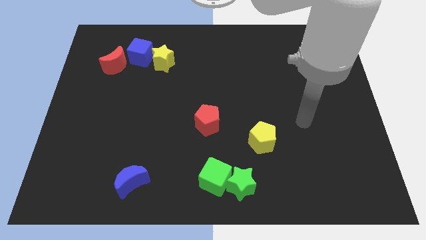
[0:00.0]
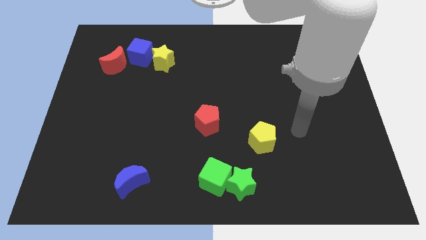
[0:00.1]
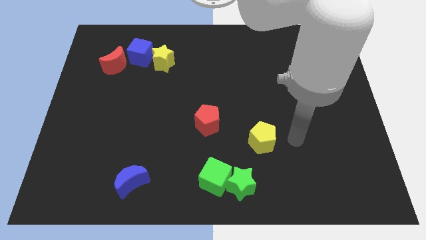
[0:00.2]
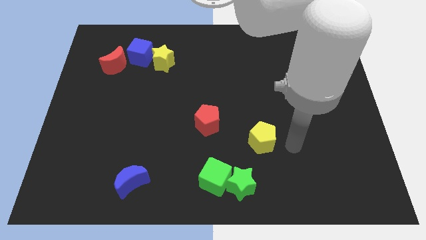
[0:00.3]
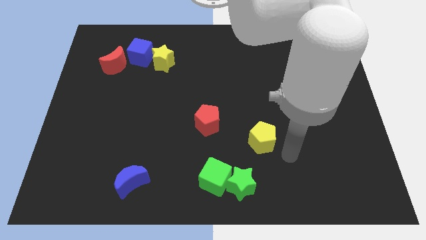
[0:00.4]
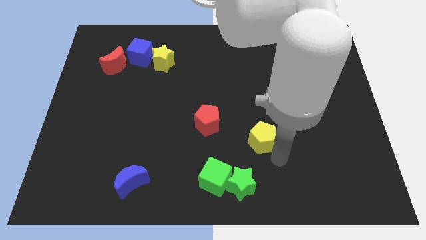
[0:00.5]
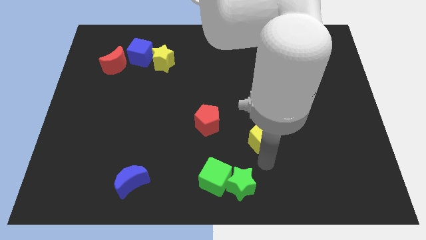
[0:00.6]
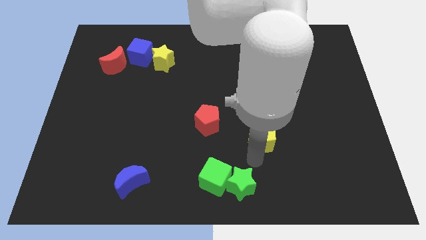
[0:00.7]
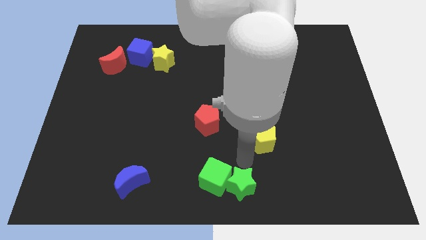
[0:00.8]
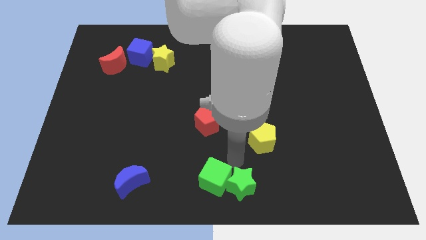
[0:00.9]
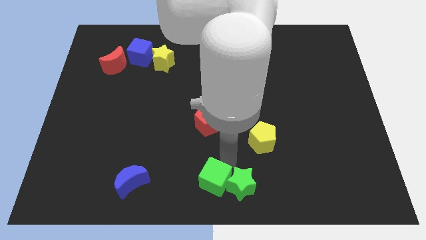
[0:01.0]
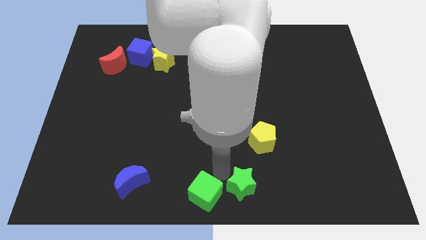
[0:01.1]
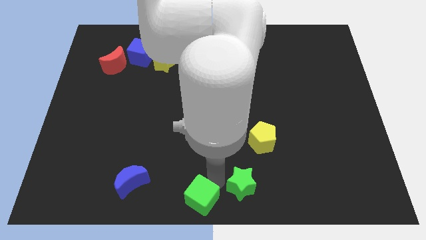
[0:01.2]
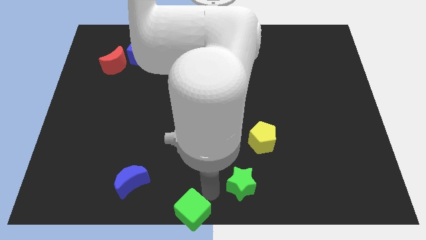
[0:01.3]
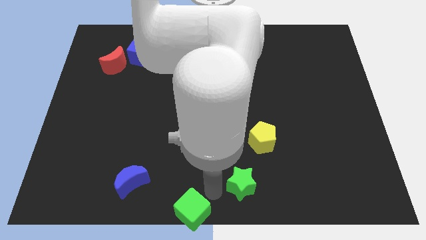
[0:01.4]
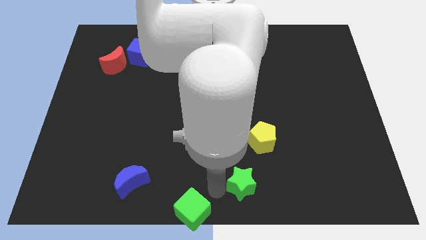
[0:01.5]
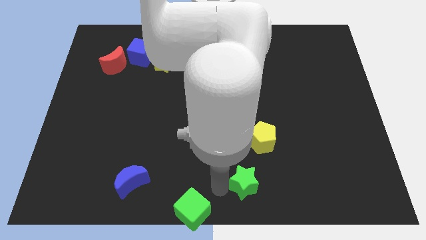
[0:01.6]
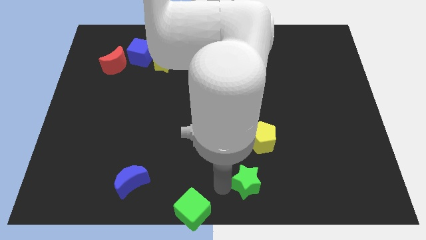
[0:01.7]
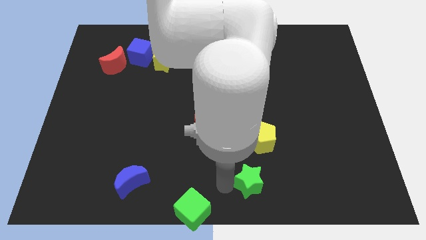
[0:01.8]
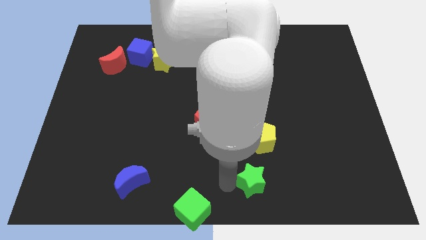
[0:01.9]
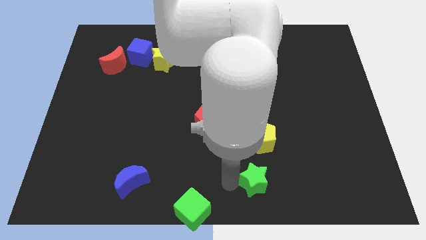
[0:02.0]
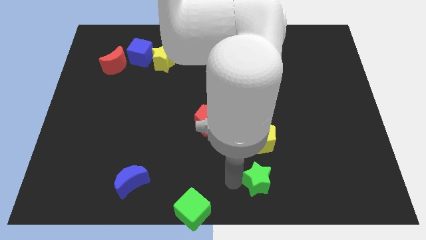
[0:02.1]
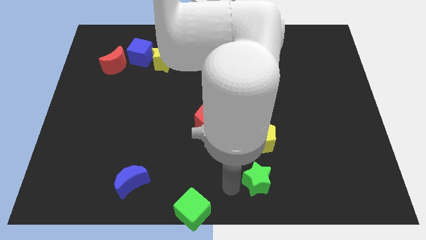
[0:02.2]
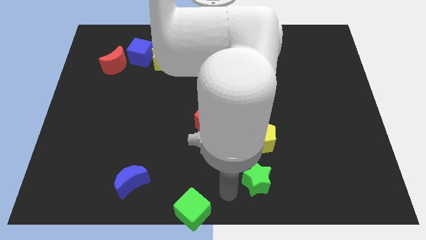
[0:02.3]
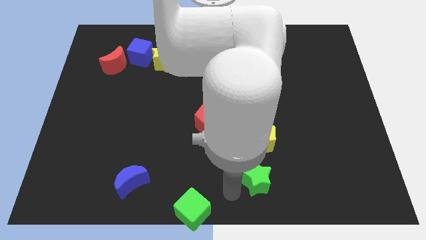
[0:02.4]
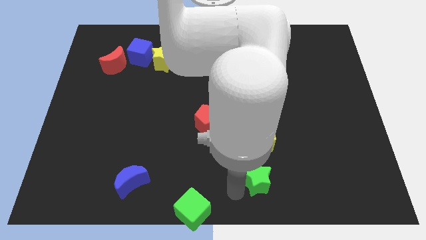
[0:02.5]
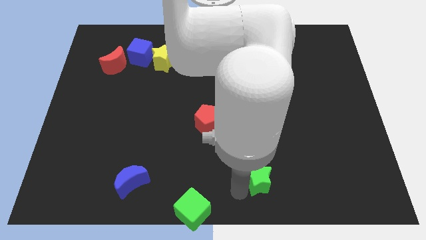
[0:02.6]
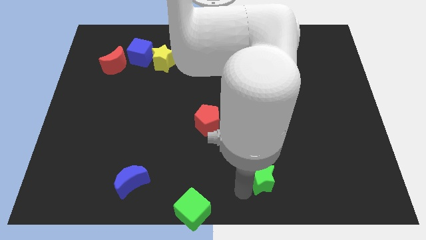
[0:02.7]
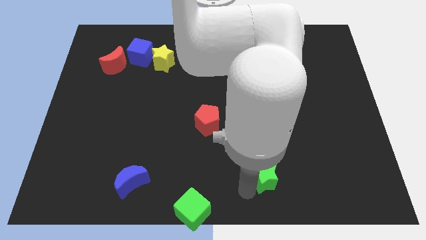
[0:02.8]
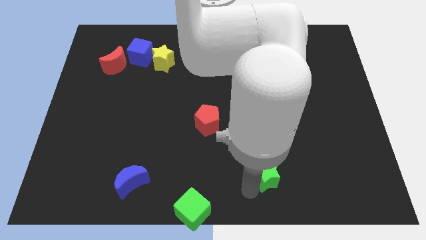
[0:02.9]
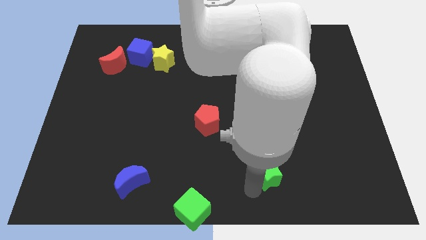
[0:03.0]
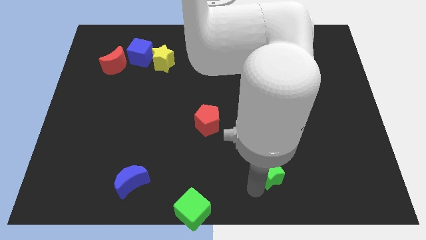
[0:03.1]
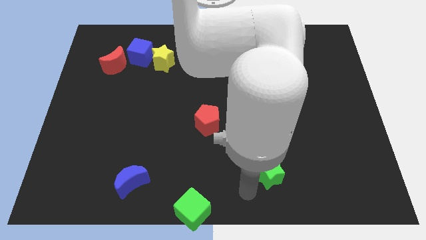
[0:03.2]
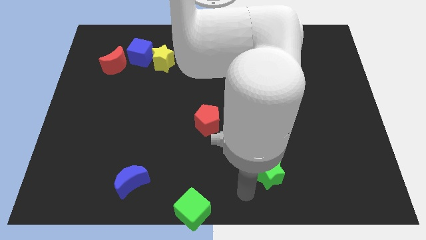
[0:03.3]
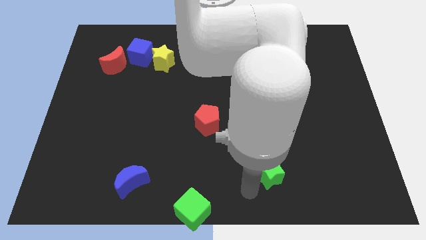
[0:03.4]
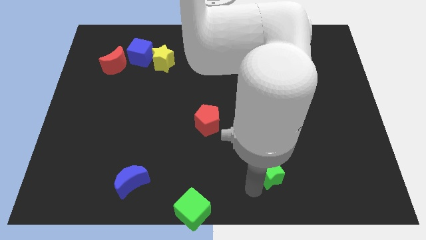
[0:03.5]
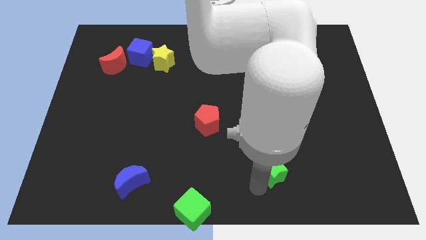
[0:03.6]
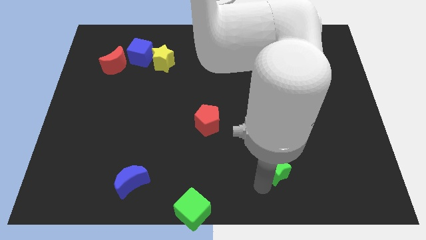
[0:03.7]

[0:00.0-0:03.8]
move the green star diagonally upwards and right a bit

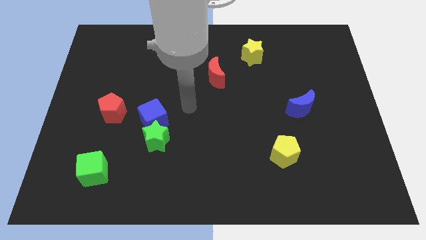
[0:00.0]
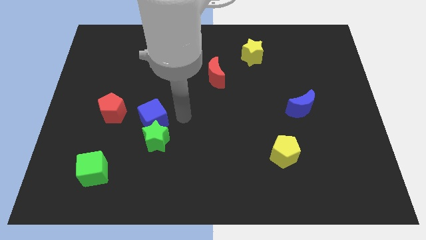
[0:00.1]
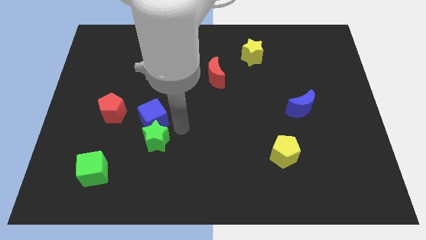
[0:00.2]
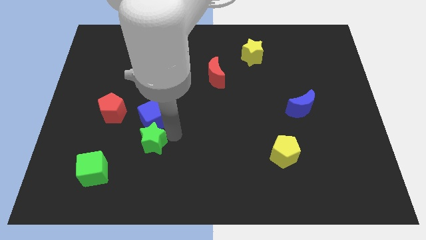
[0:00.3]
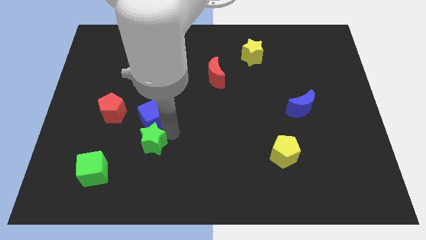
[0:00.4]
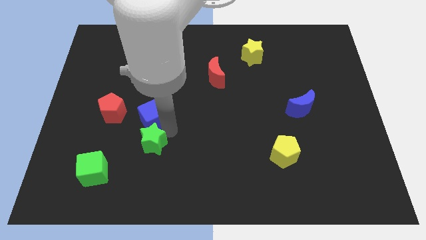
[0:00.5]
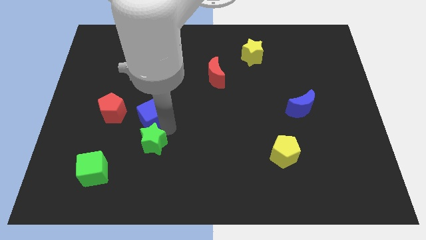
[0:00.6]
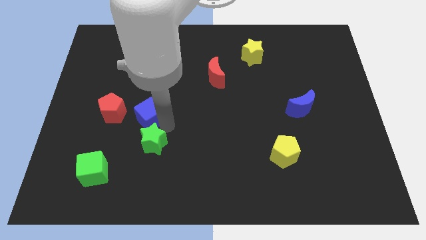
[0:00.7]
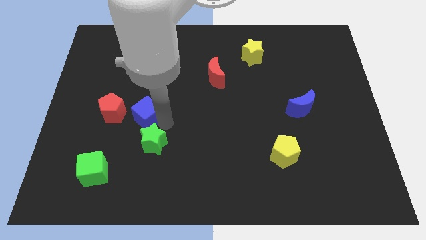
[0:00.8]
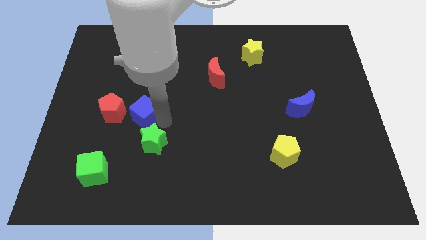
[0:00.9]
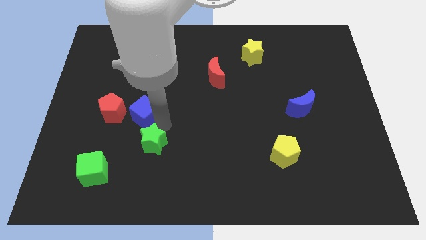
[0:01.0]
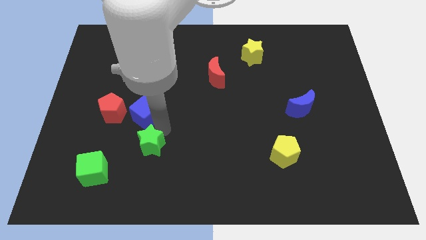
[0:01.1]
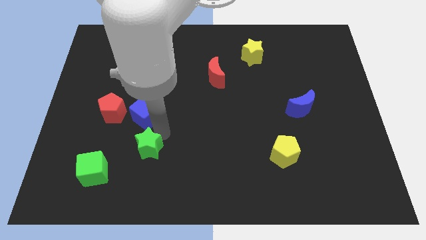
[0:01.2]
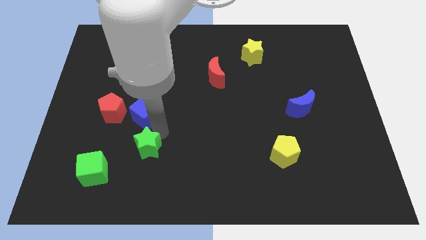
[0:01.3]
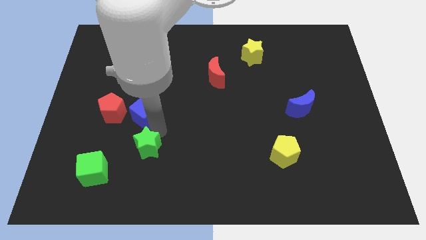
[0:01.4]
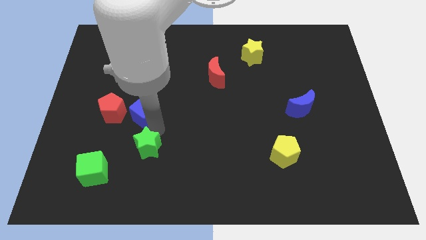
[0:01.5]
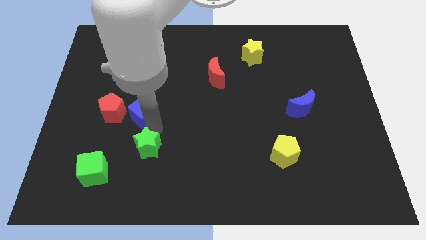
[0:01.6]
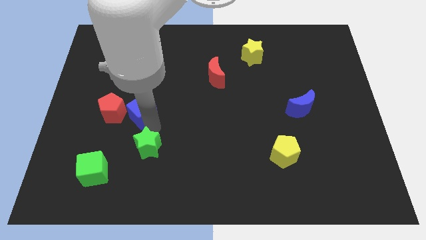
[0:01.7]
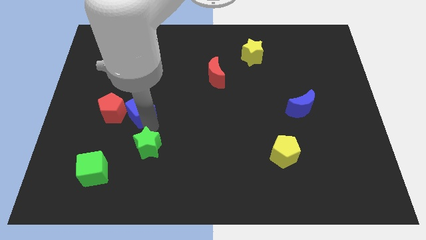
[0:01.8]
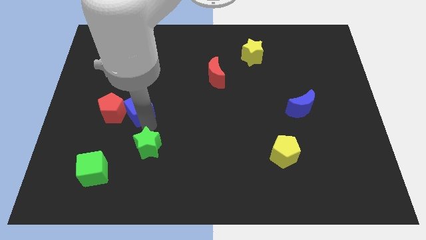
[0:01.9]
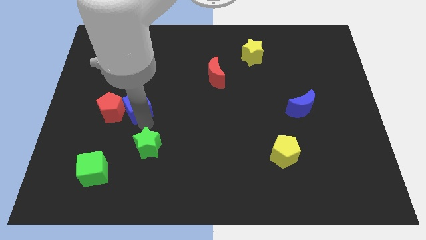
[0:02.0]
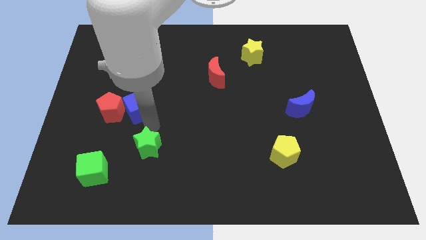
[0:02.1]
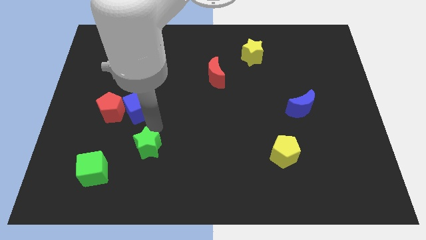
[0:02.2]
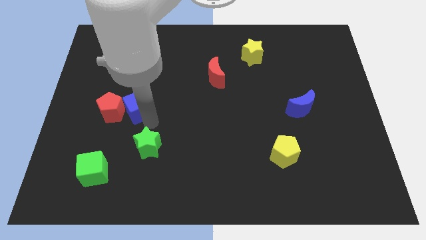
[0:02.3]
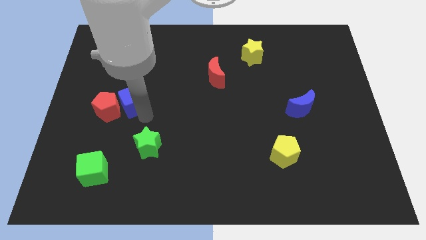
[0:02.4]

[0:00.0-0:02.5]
slightly push the blue cube upwards and to the left diagonally

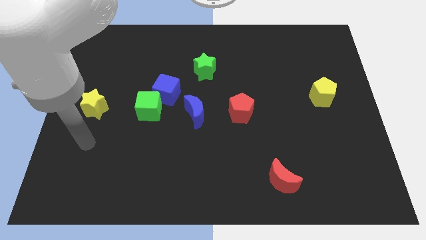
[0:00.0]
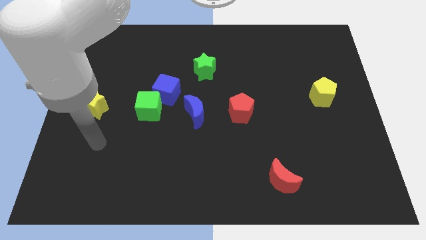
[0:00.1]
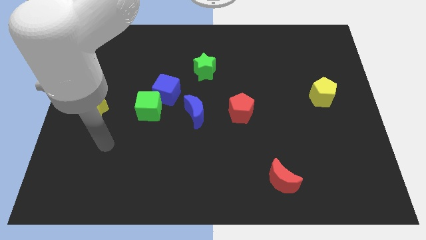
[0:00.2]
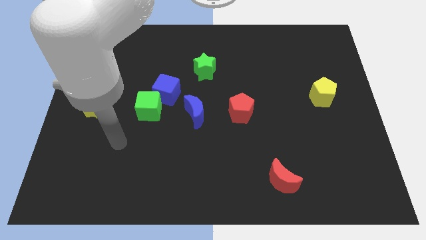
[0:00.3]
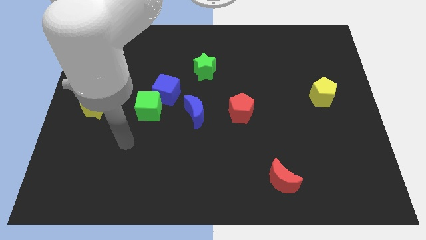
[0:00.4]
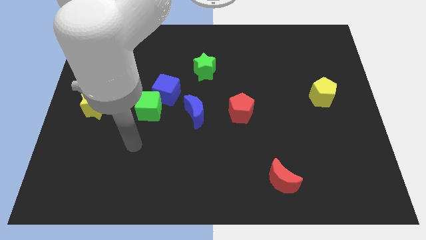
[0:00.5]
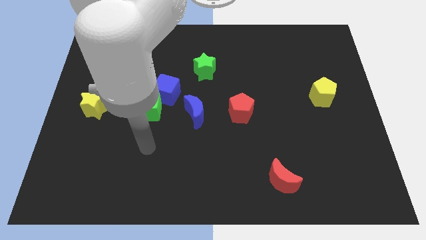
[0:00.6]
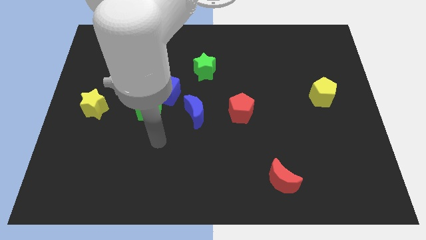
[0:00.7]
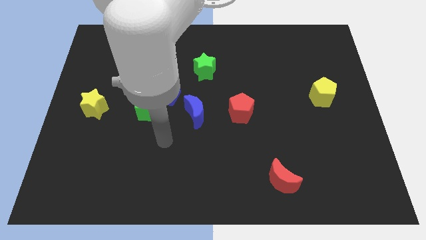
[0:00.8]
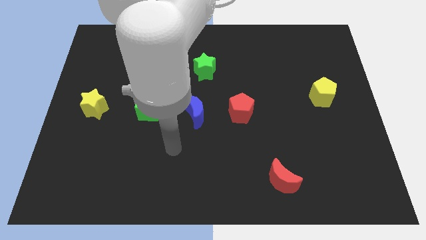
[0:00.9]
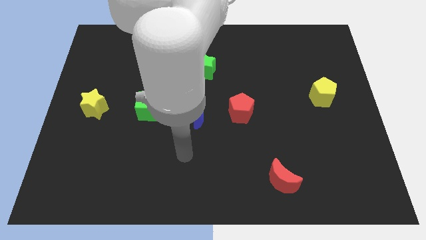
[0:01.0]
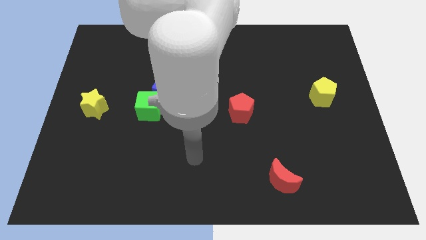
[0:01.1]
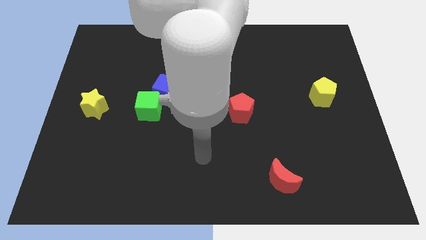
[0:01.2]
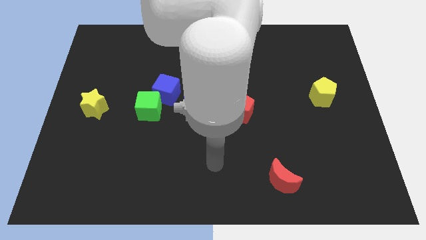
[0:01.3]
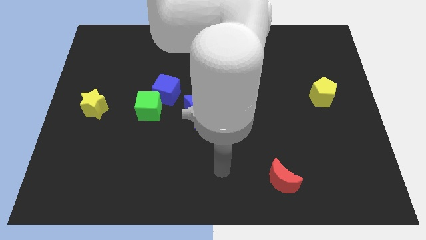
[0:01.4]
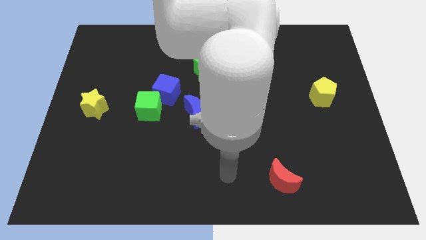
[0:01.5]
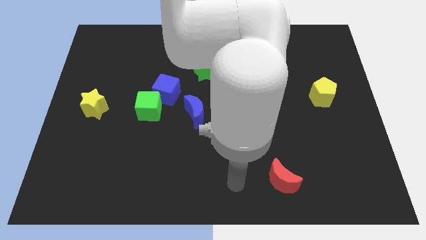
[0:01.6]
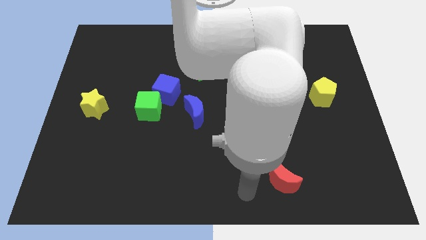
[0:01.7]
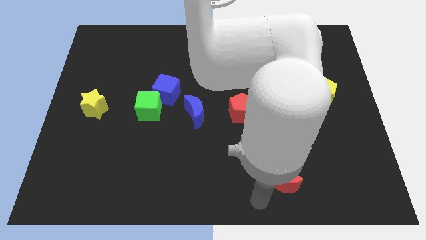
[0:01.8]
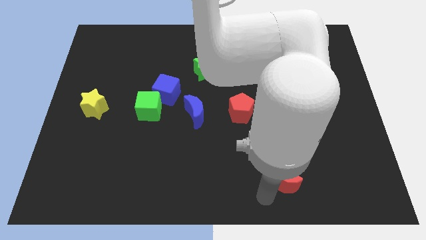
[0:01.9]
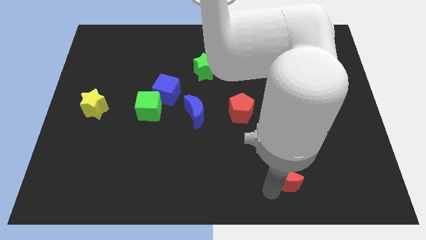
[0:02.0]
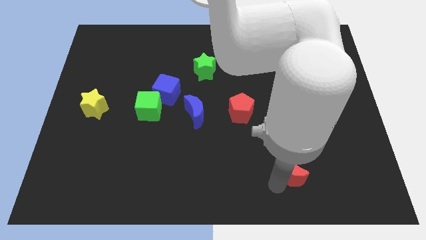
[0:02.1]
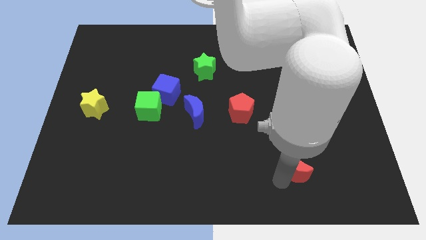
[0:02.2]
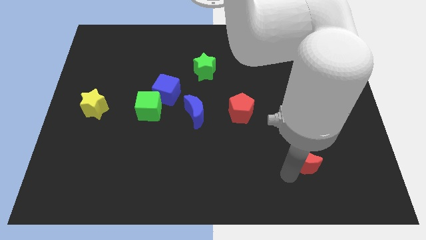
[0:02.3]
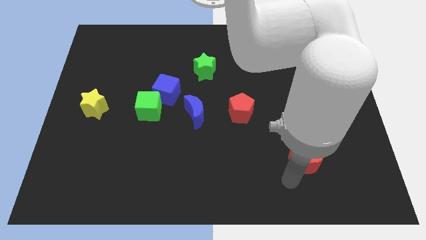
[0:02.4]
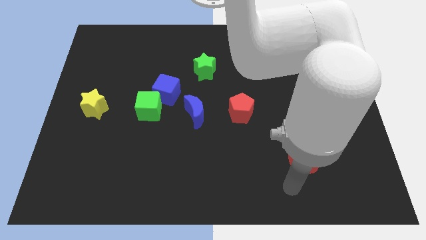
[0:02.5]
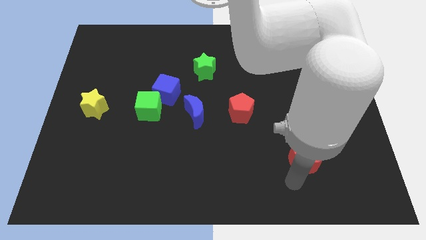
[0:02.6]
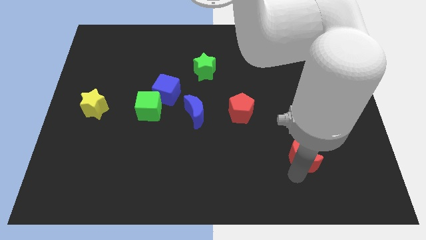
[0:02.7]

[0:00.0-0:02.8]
slightly move the red moon diagonally up and right
